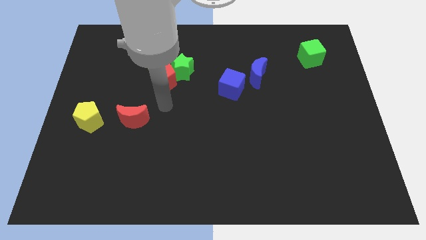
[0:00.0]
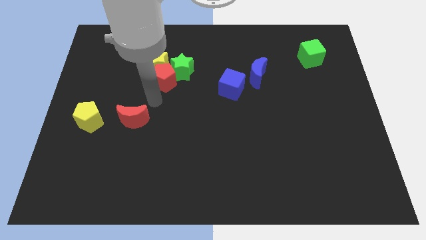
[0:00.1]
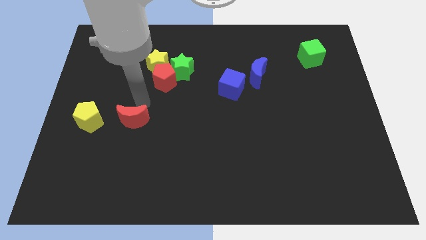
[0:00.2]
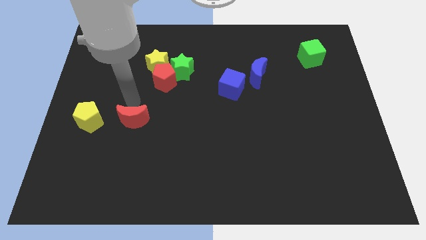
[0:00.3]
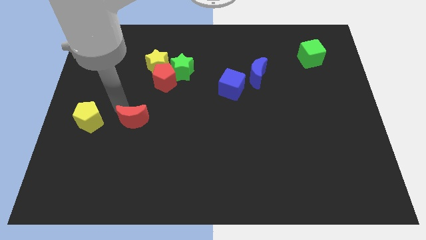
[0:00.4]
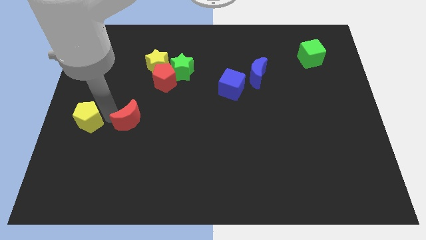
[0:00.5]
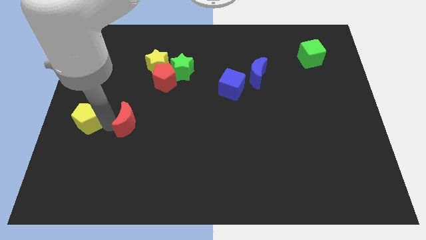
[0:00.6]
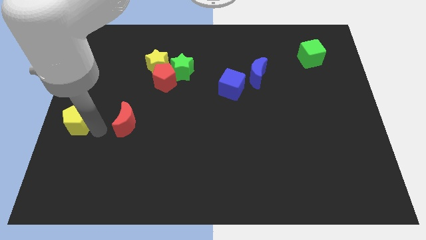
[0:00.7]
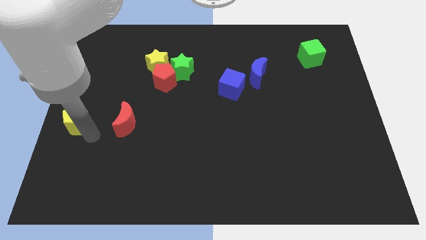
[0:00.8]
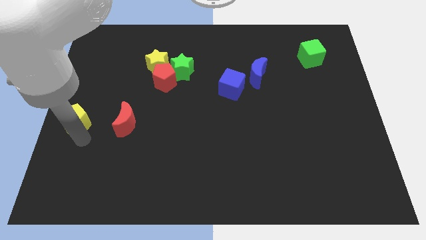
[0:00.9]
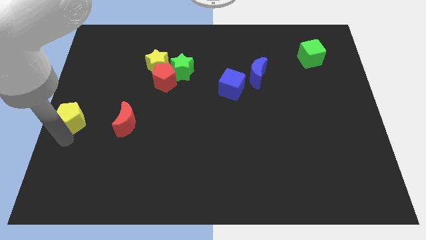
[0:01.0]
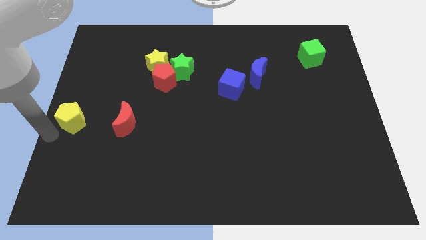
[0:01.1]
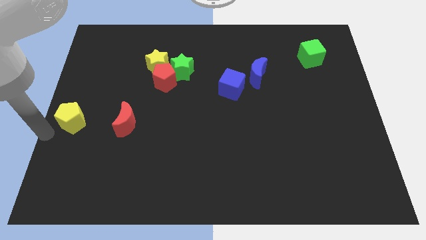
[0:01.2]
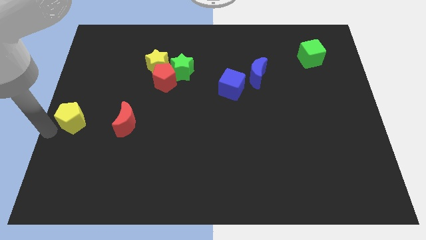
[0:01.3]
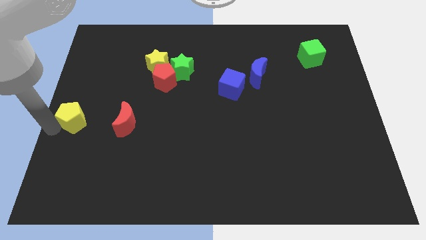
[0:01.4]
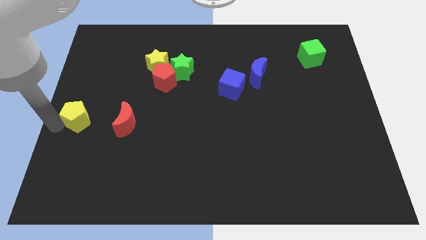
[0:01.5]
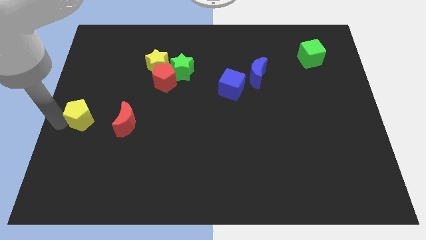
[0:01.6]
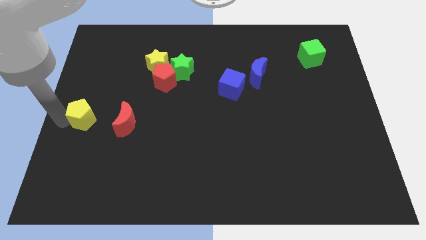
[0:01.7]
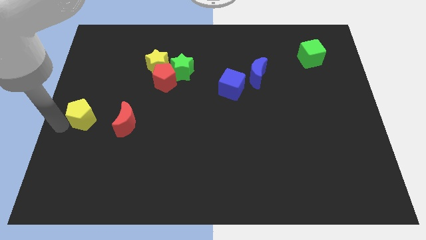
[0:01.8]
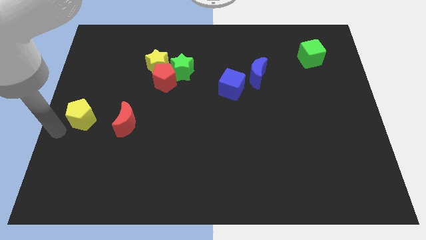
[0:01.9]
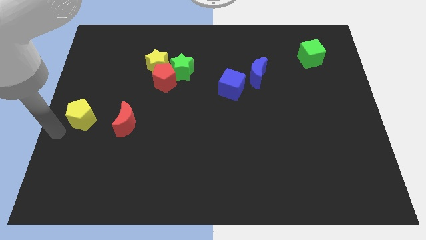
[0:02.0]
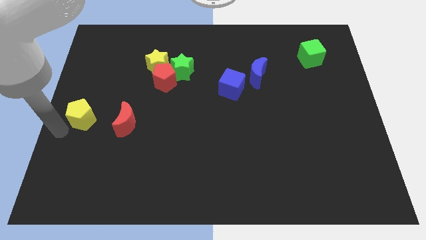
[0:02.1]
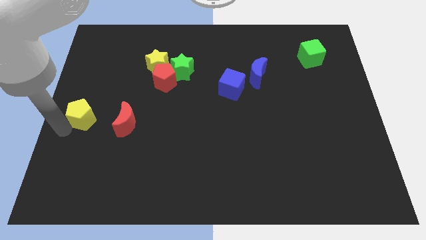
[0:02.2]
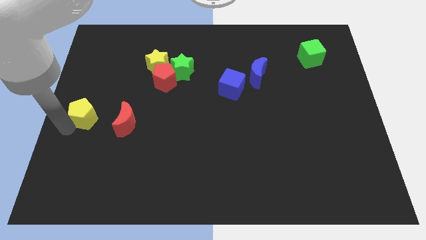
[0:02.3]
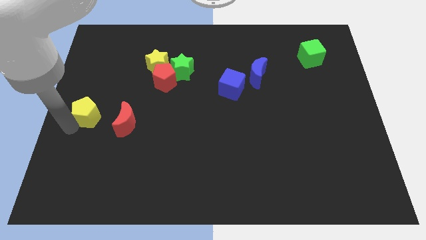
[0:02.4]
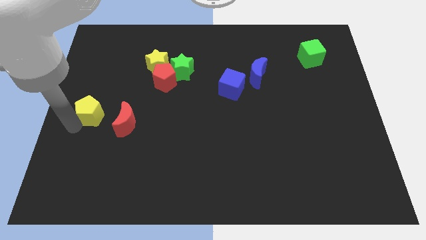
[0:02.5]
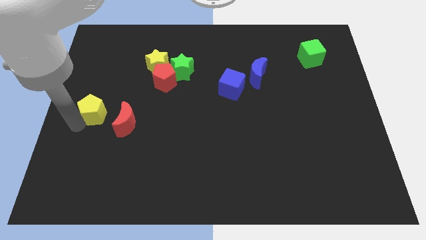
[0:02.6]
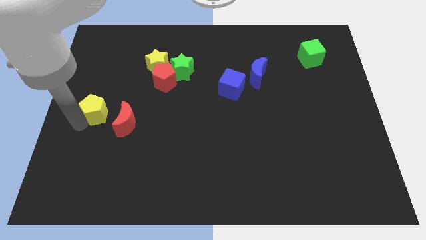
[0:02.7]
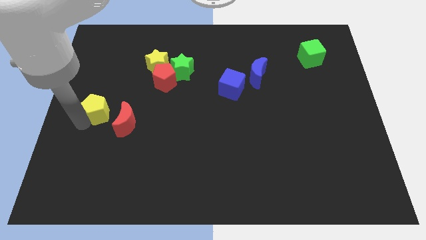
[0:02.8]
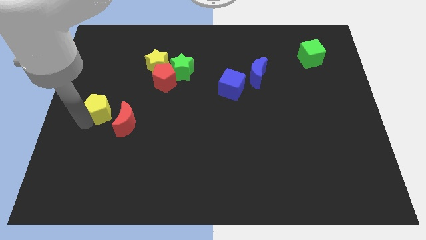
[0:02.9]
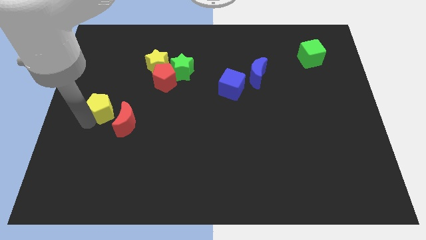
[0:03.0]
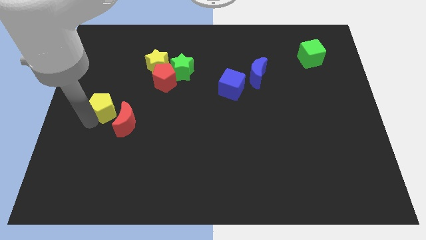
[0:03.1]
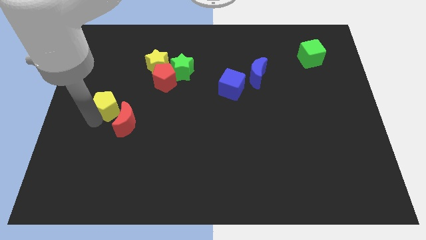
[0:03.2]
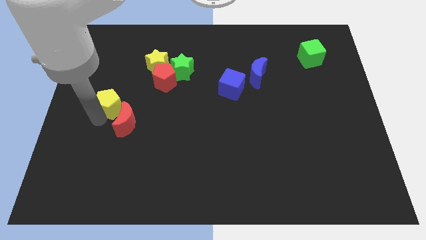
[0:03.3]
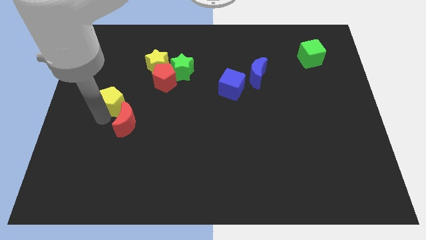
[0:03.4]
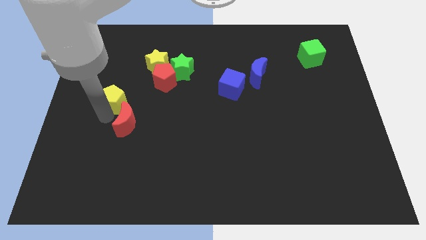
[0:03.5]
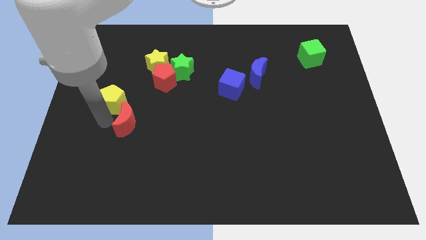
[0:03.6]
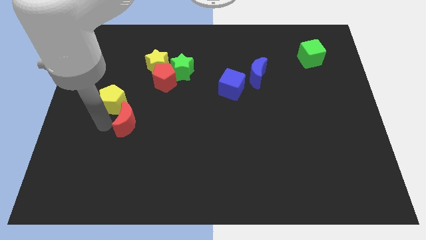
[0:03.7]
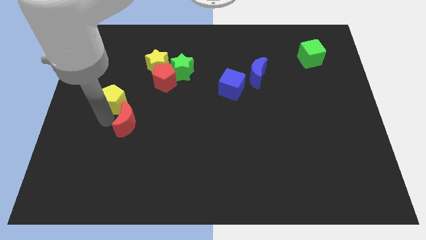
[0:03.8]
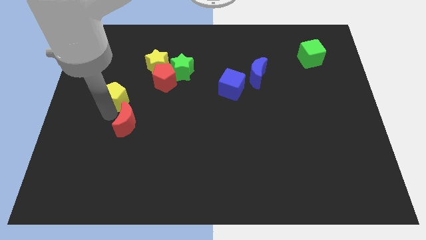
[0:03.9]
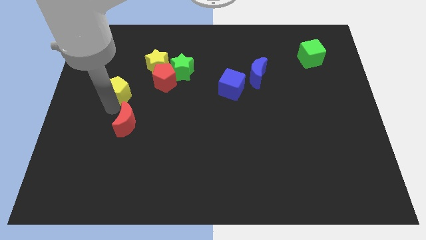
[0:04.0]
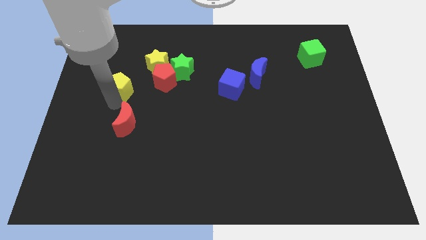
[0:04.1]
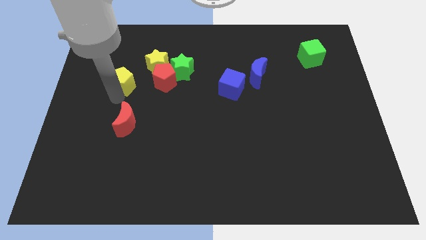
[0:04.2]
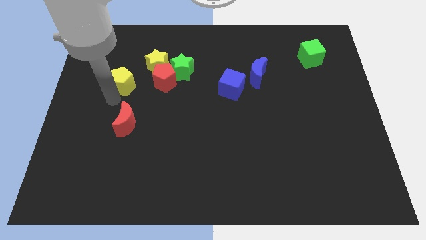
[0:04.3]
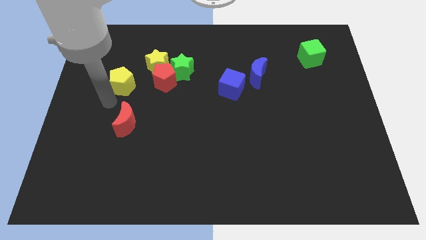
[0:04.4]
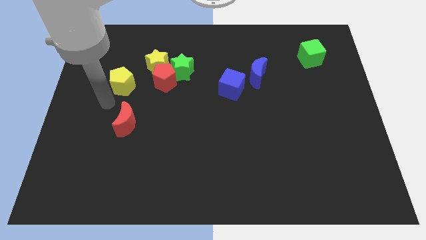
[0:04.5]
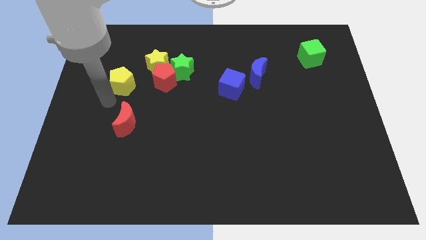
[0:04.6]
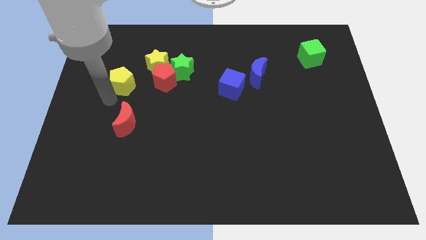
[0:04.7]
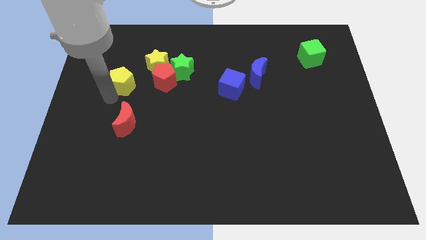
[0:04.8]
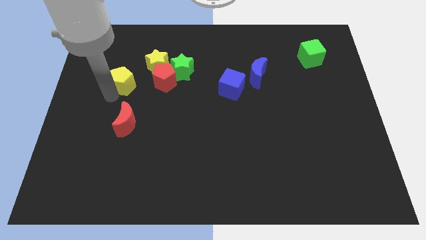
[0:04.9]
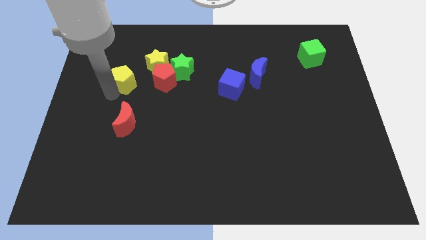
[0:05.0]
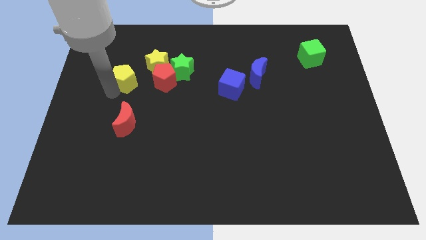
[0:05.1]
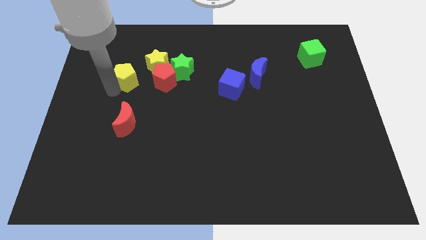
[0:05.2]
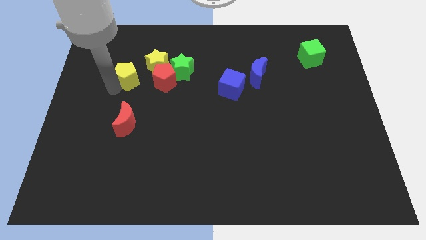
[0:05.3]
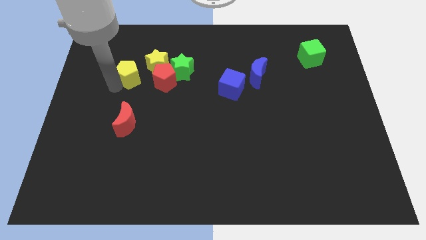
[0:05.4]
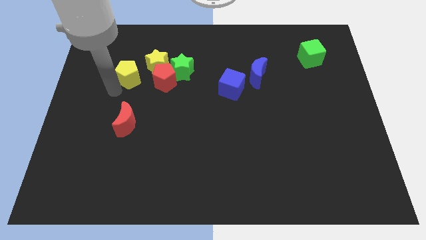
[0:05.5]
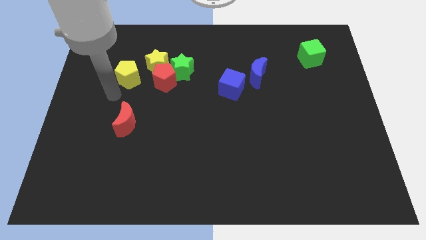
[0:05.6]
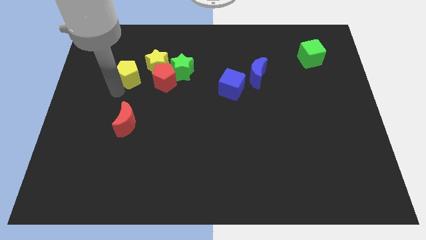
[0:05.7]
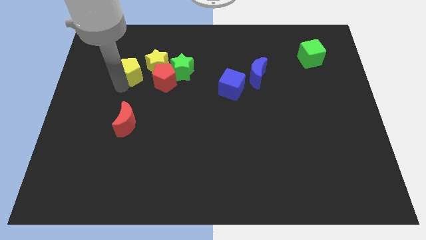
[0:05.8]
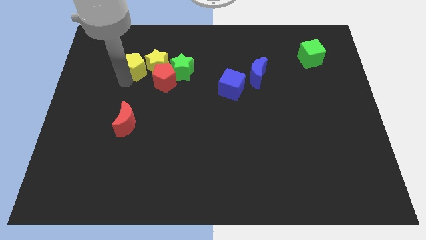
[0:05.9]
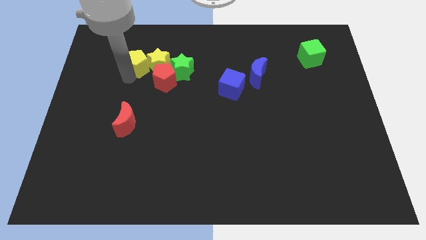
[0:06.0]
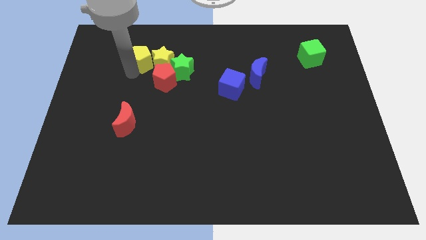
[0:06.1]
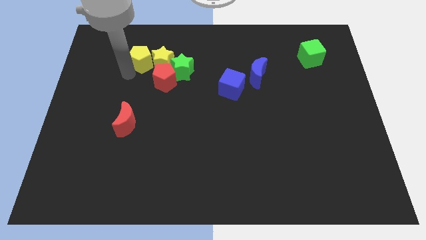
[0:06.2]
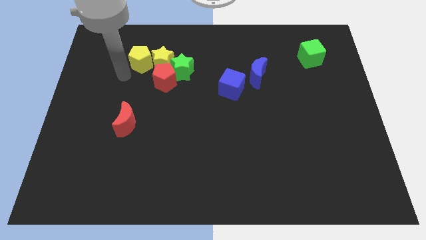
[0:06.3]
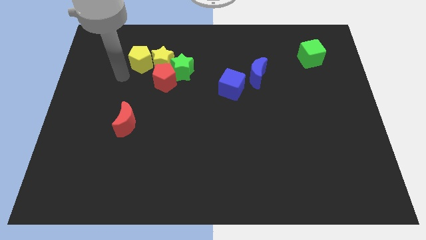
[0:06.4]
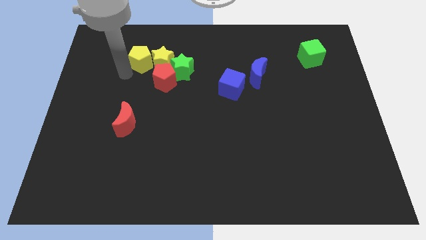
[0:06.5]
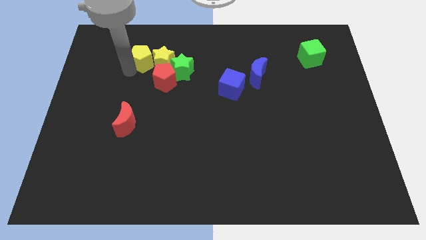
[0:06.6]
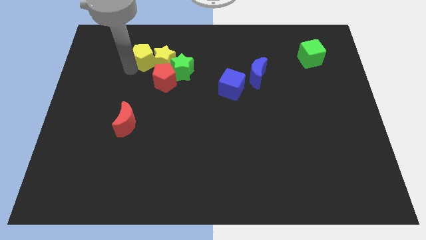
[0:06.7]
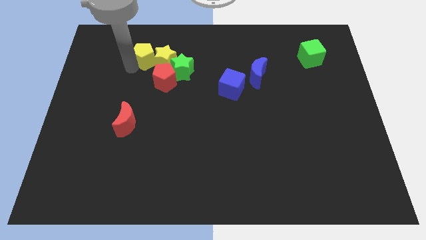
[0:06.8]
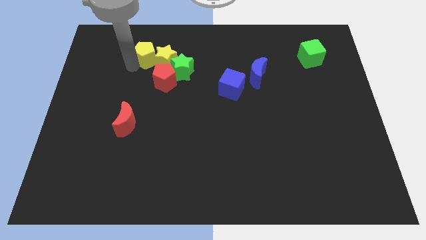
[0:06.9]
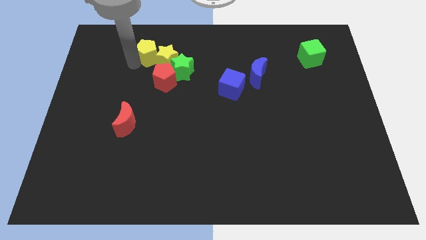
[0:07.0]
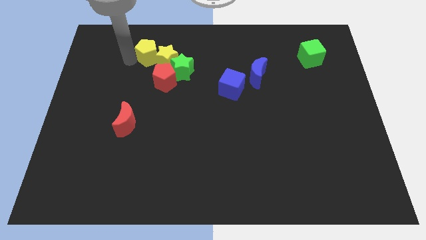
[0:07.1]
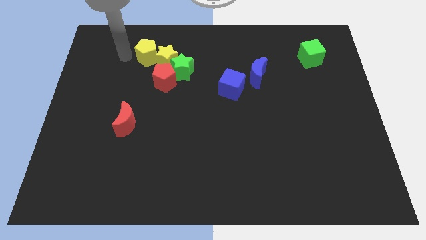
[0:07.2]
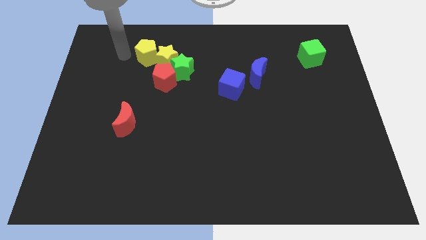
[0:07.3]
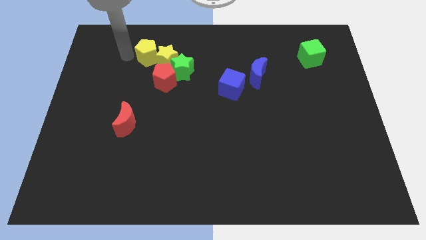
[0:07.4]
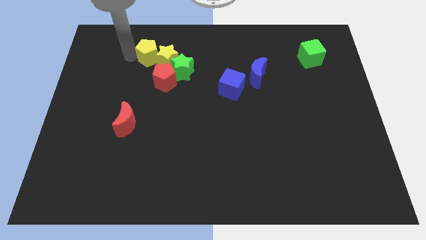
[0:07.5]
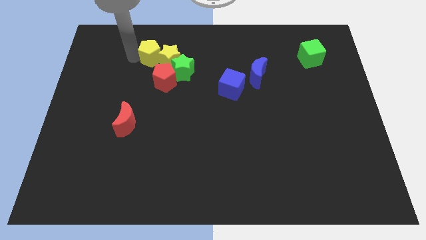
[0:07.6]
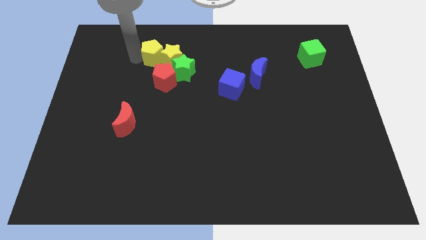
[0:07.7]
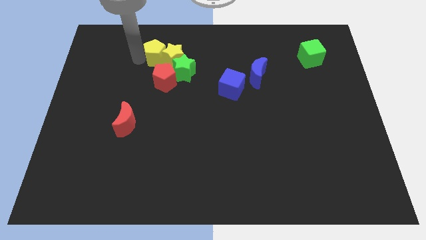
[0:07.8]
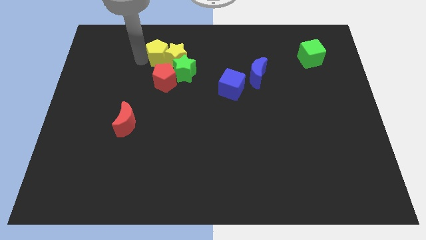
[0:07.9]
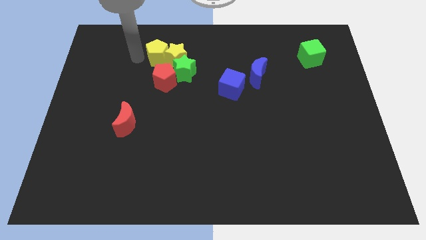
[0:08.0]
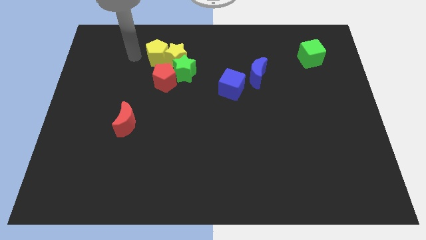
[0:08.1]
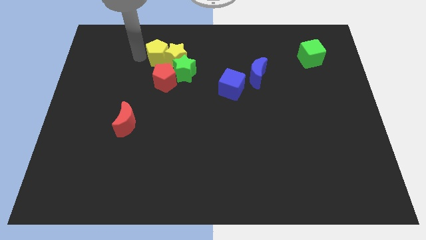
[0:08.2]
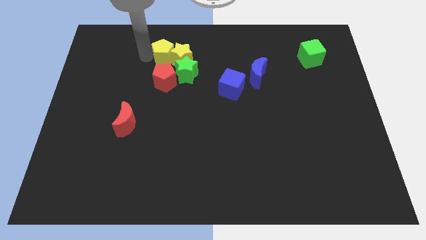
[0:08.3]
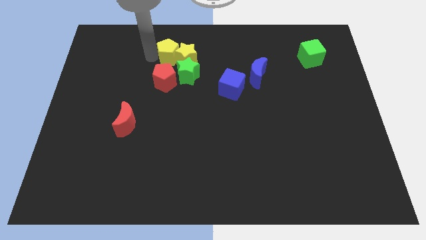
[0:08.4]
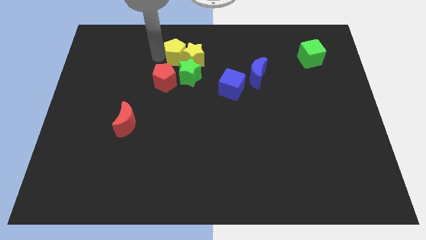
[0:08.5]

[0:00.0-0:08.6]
push the yellow pentagon to the top right side of the red pentagon

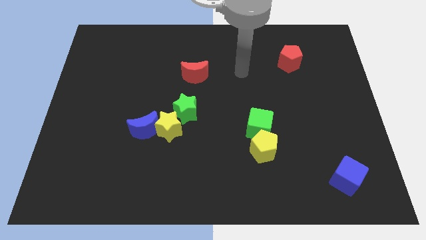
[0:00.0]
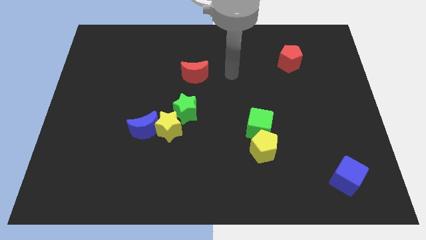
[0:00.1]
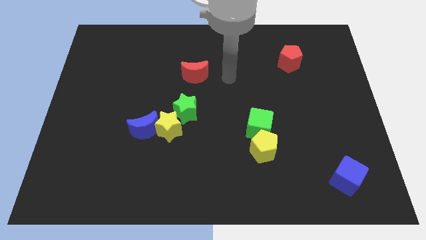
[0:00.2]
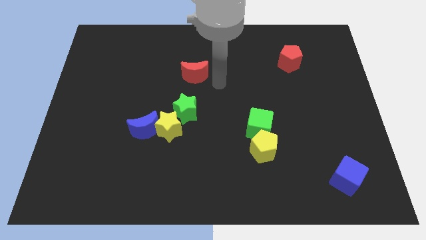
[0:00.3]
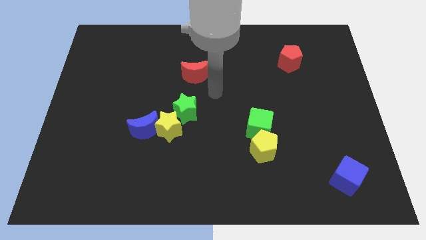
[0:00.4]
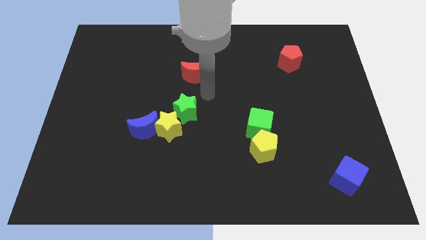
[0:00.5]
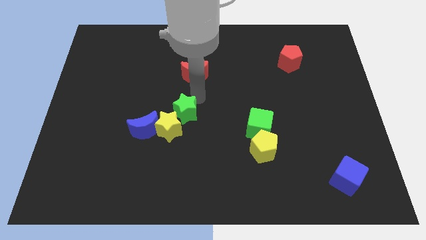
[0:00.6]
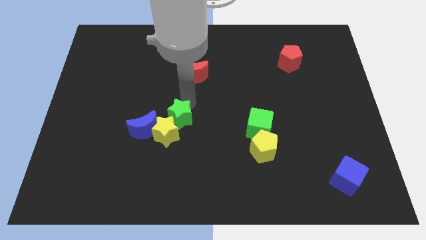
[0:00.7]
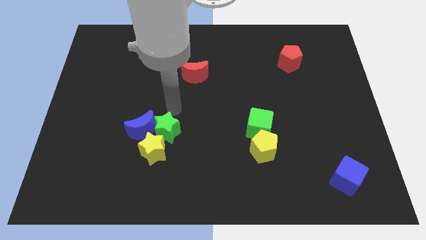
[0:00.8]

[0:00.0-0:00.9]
slide the yellow star to the bottom of the blue moon
